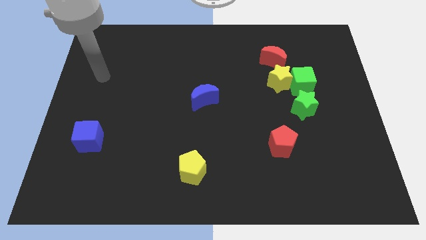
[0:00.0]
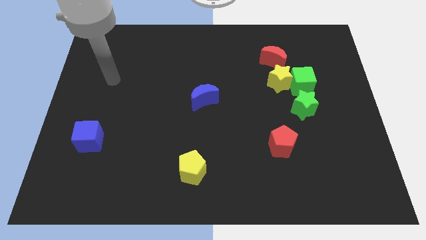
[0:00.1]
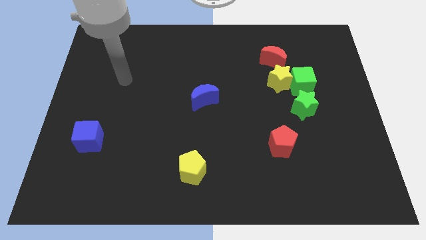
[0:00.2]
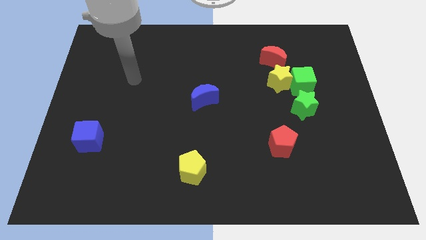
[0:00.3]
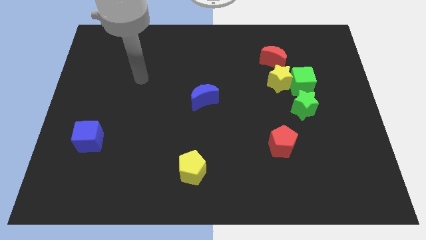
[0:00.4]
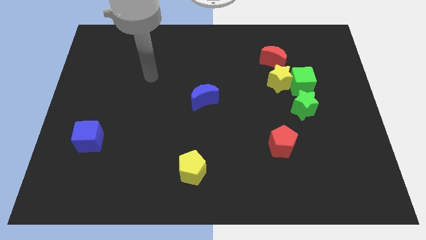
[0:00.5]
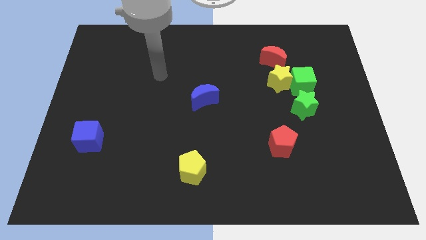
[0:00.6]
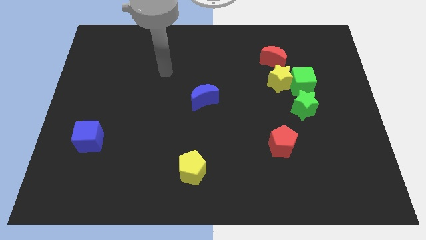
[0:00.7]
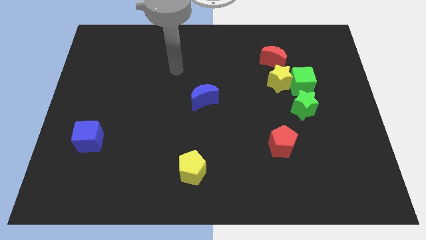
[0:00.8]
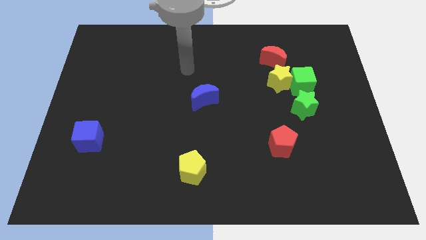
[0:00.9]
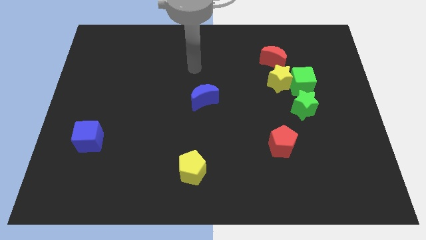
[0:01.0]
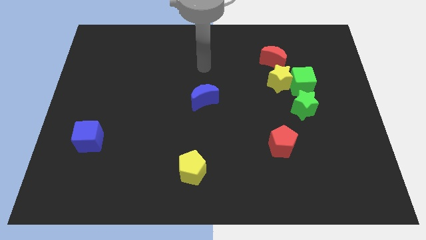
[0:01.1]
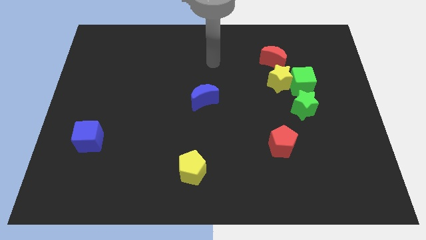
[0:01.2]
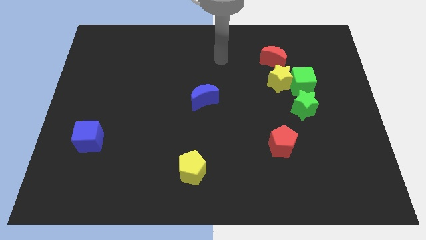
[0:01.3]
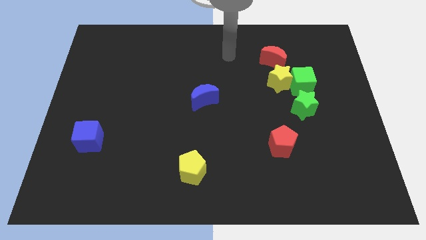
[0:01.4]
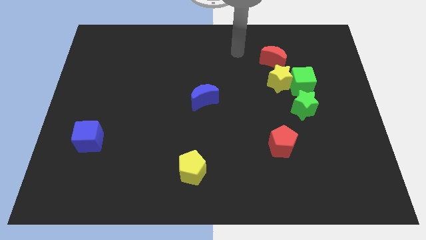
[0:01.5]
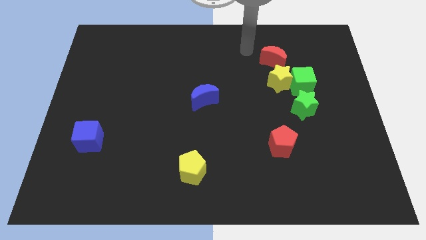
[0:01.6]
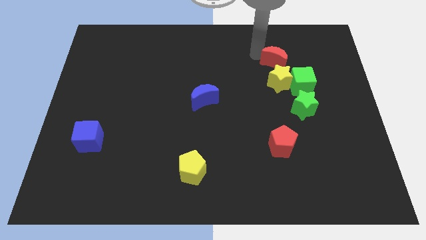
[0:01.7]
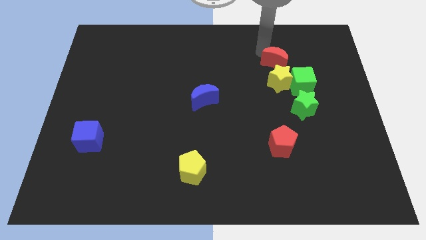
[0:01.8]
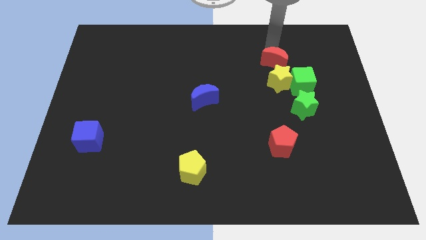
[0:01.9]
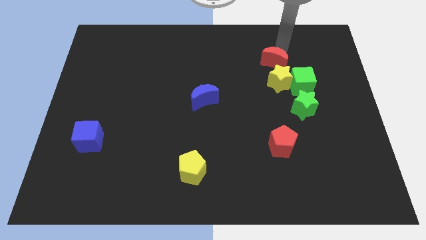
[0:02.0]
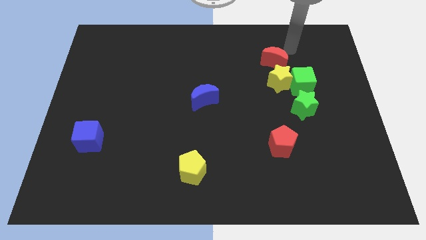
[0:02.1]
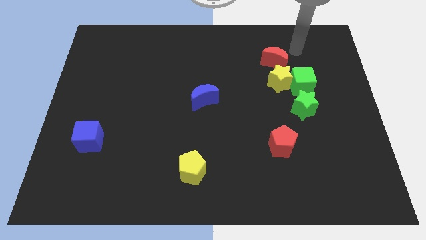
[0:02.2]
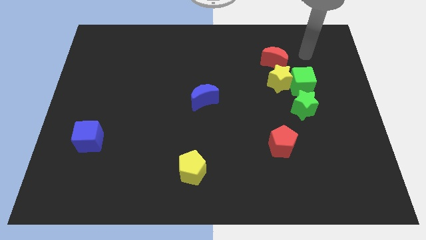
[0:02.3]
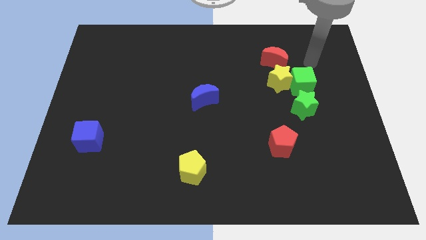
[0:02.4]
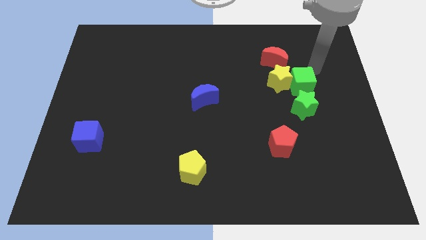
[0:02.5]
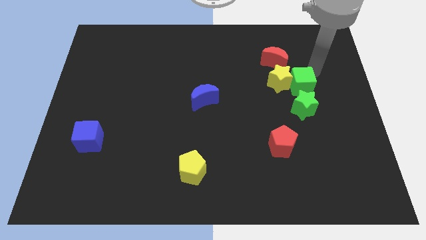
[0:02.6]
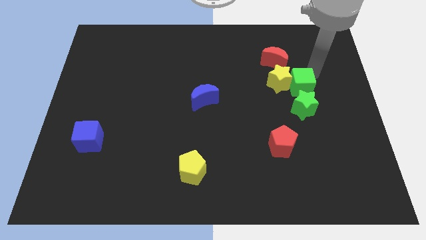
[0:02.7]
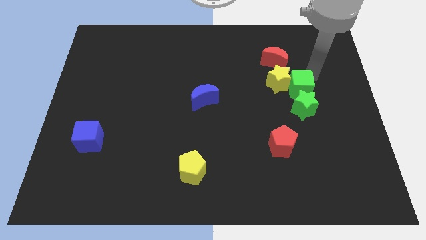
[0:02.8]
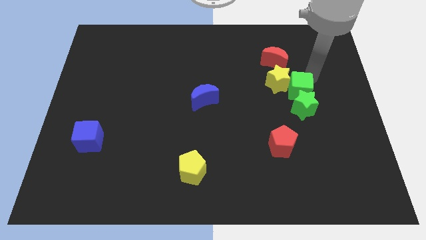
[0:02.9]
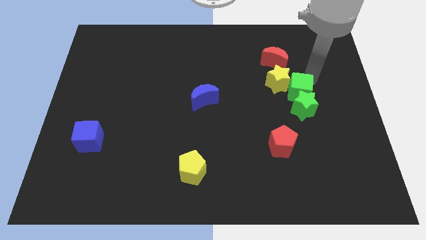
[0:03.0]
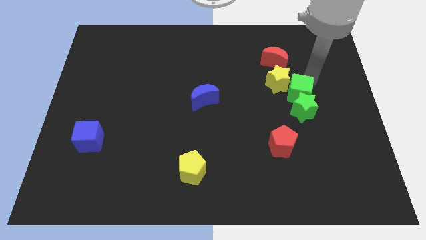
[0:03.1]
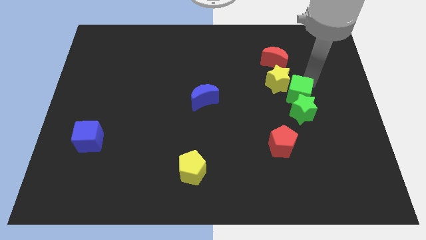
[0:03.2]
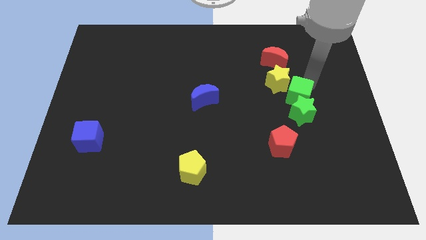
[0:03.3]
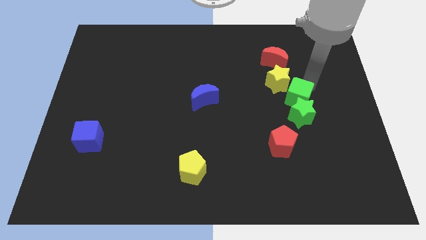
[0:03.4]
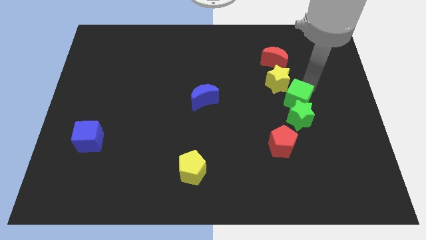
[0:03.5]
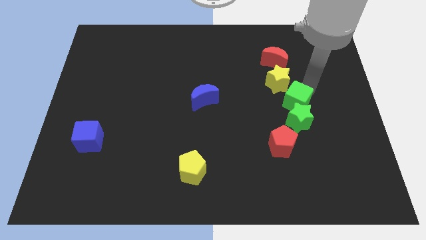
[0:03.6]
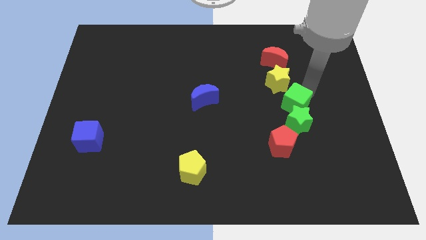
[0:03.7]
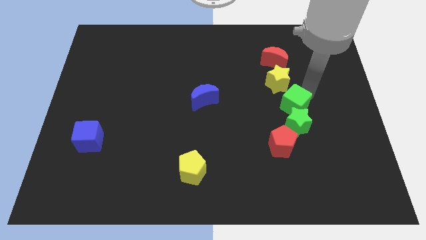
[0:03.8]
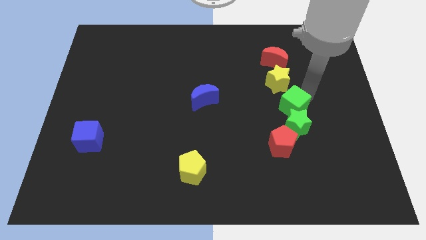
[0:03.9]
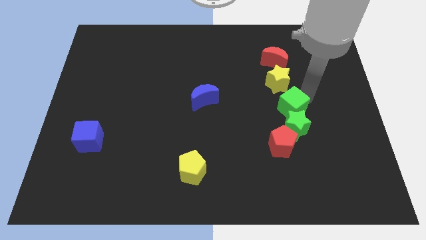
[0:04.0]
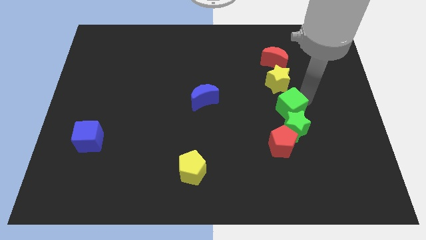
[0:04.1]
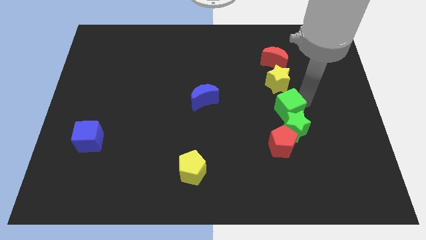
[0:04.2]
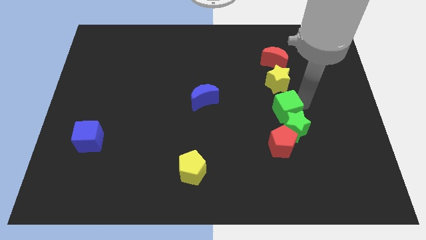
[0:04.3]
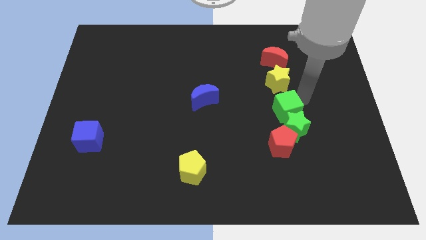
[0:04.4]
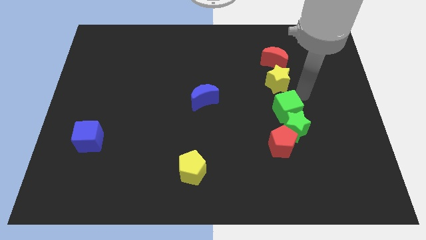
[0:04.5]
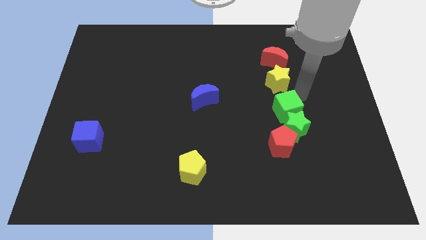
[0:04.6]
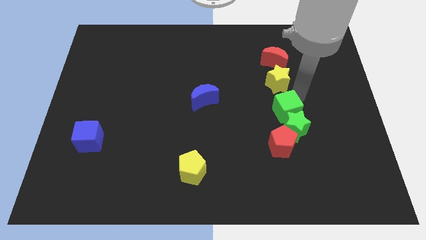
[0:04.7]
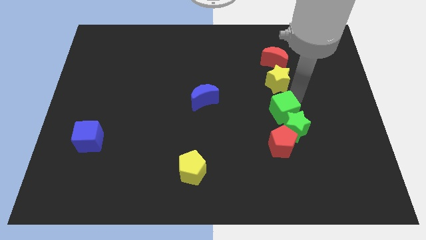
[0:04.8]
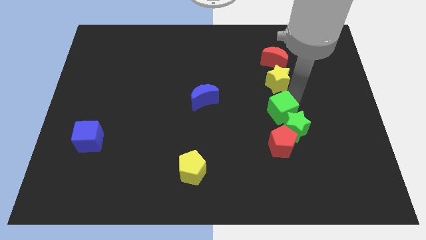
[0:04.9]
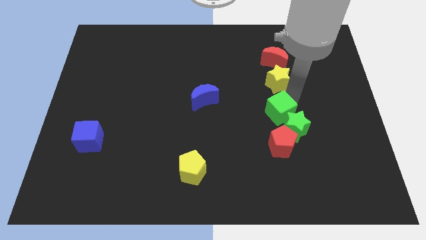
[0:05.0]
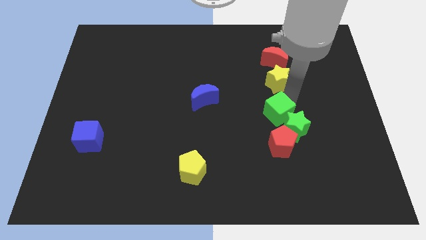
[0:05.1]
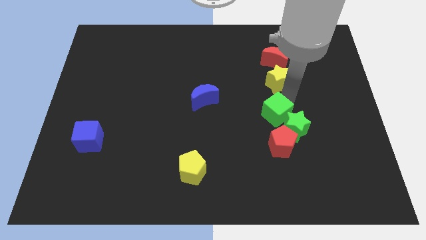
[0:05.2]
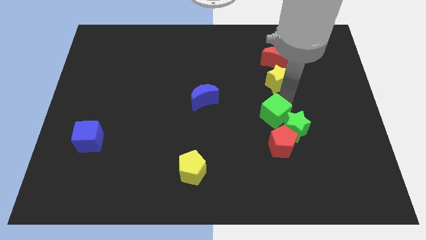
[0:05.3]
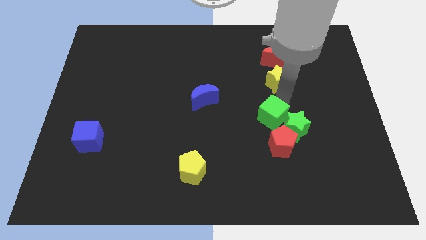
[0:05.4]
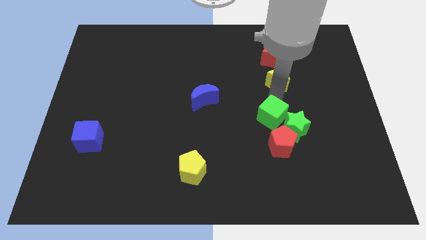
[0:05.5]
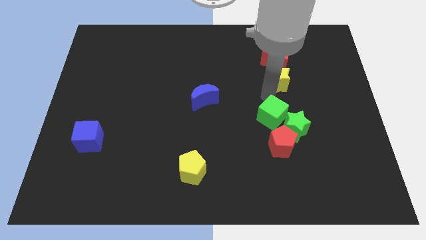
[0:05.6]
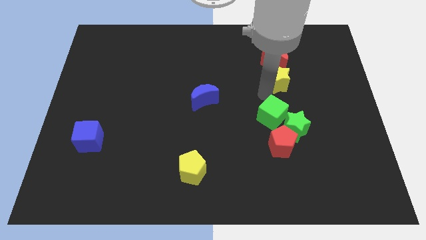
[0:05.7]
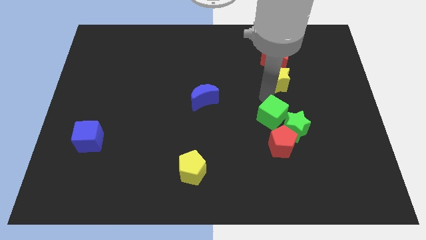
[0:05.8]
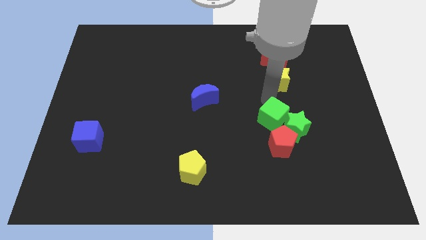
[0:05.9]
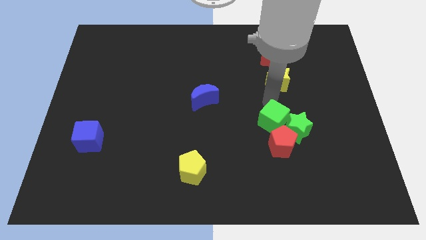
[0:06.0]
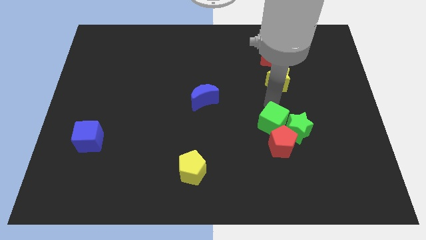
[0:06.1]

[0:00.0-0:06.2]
slide the green cube towards the red pentagon

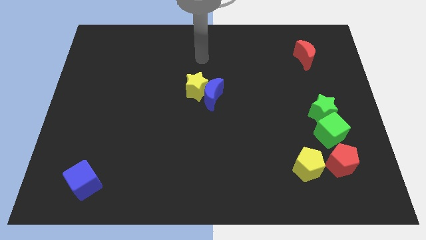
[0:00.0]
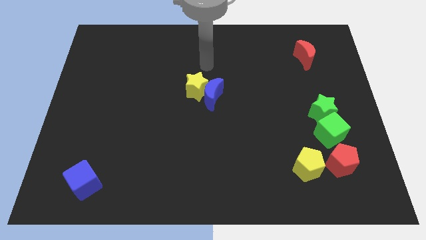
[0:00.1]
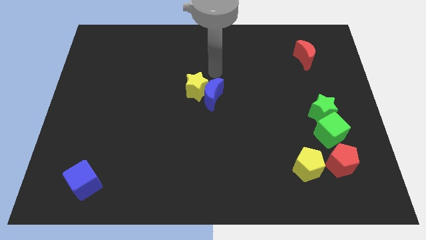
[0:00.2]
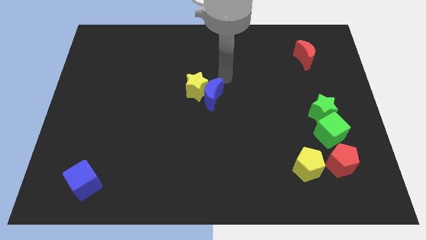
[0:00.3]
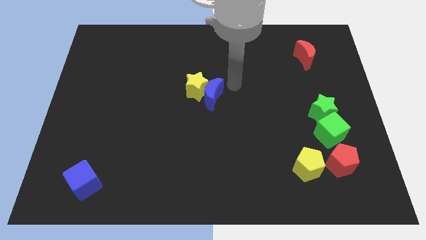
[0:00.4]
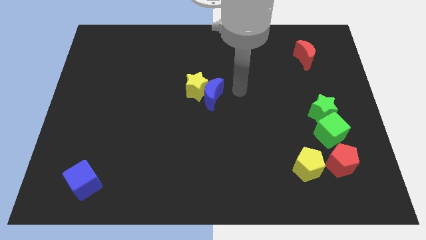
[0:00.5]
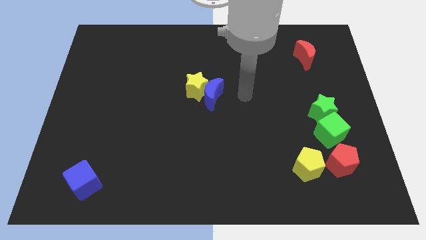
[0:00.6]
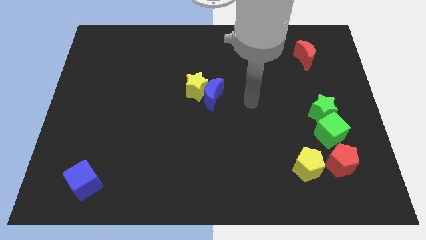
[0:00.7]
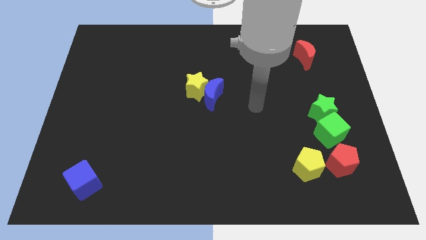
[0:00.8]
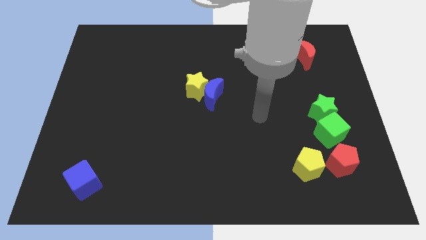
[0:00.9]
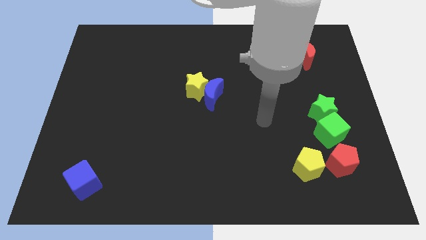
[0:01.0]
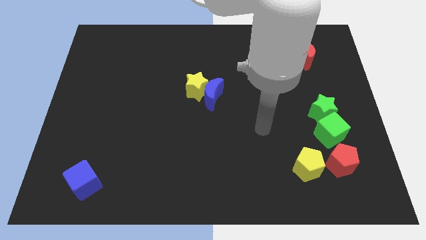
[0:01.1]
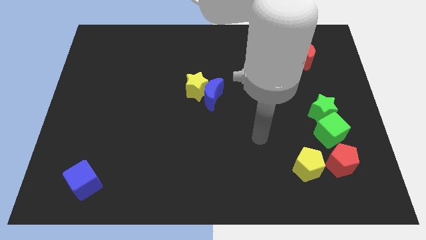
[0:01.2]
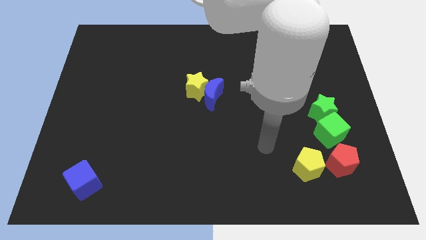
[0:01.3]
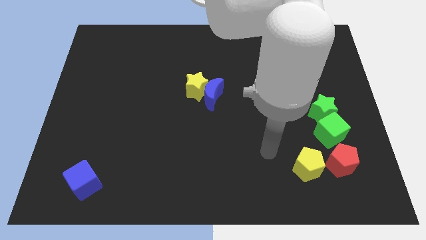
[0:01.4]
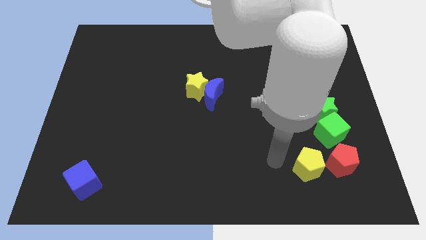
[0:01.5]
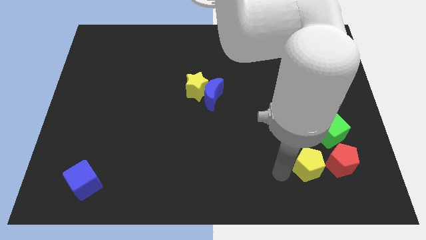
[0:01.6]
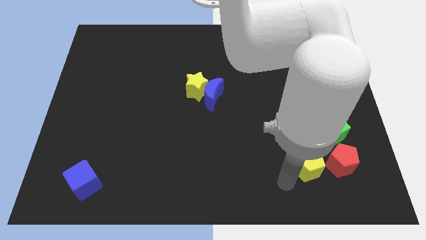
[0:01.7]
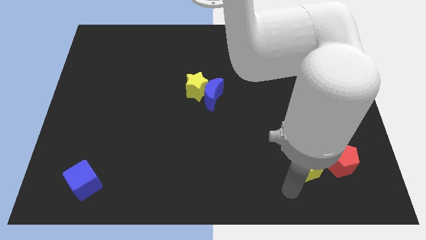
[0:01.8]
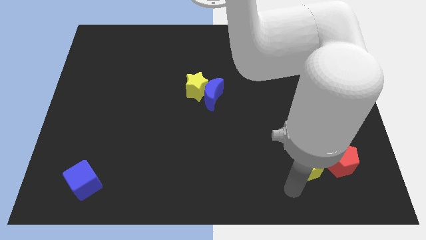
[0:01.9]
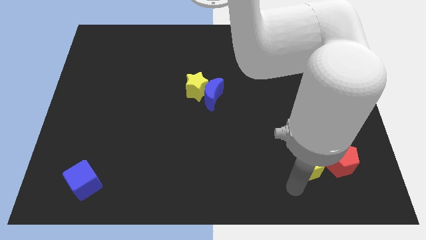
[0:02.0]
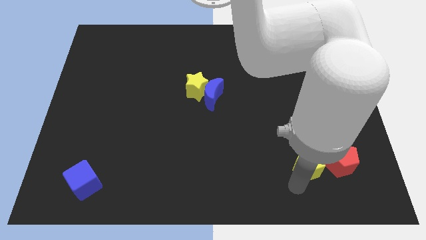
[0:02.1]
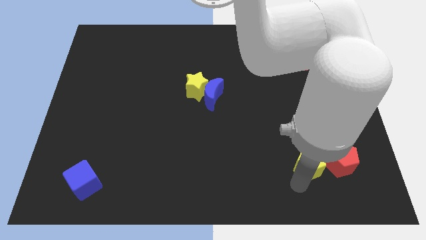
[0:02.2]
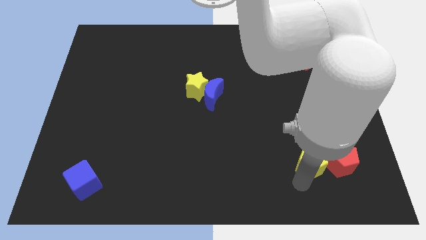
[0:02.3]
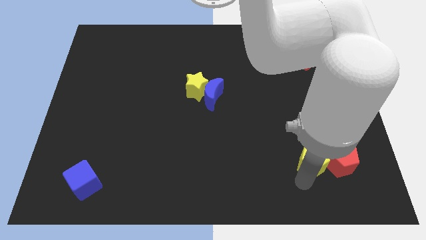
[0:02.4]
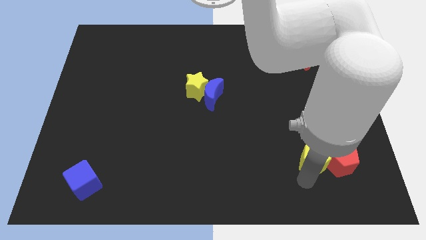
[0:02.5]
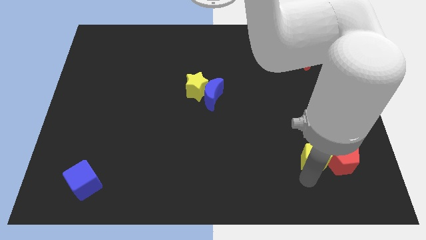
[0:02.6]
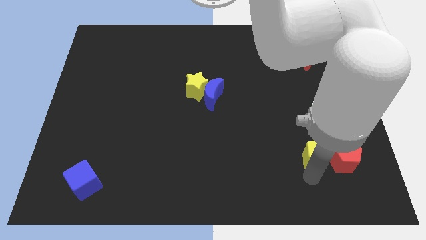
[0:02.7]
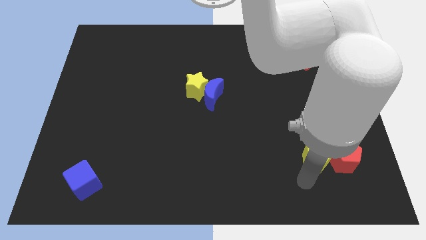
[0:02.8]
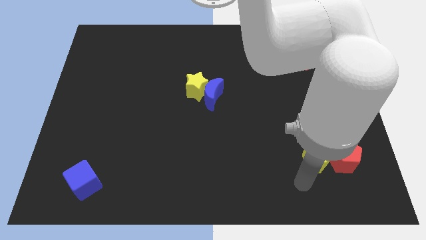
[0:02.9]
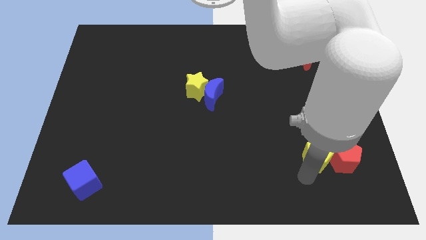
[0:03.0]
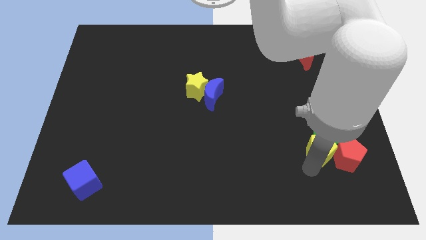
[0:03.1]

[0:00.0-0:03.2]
move the yellow pentagon next to the green cube
